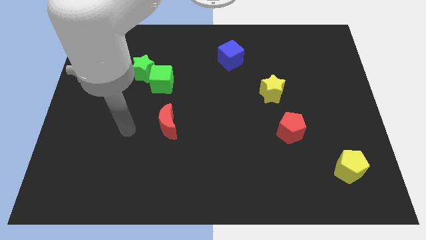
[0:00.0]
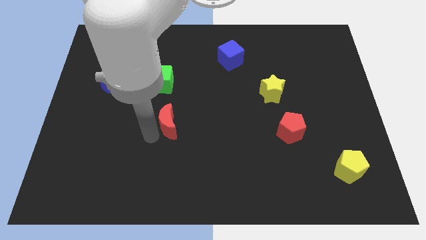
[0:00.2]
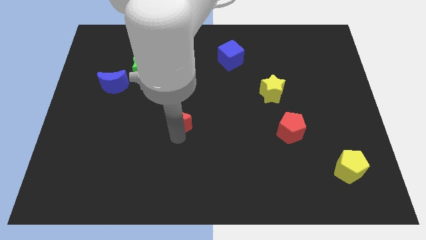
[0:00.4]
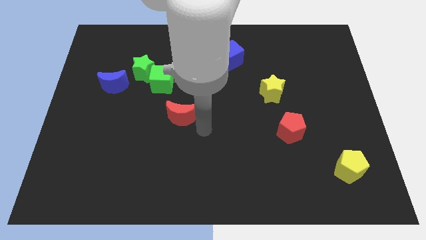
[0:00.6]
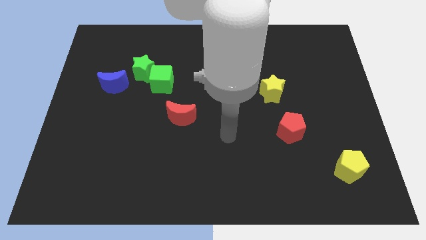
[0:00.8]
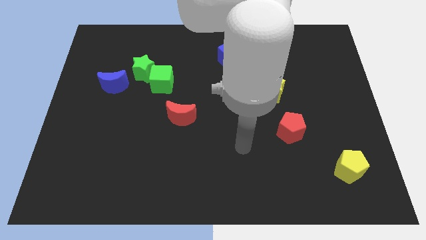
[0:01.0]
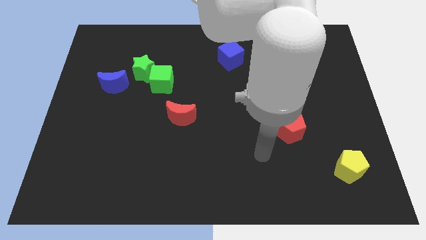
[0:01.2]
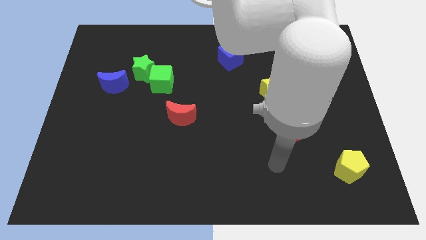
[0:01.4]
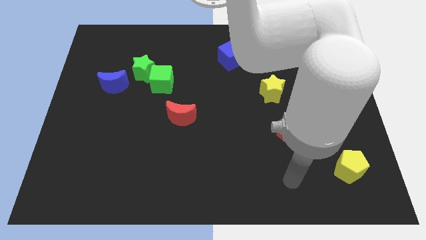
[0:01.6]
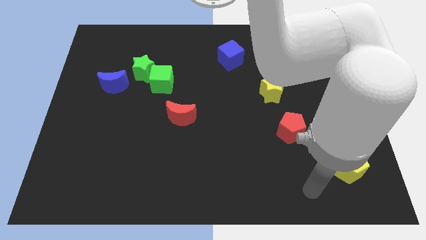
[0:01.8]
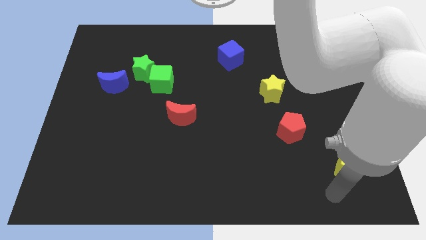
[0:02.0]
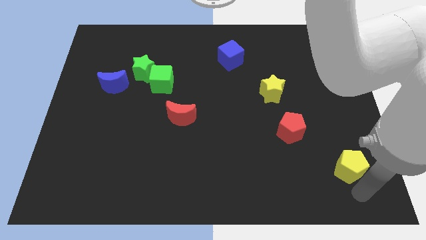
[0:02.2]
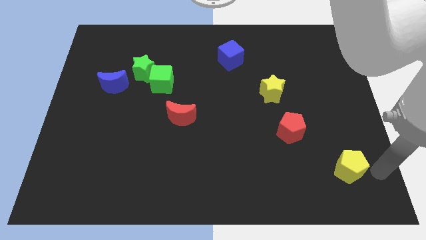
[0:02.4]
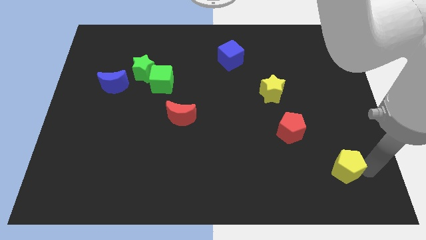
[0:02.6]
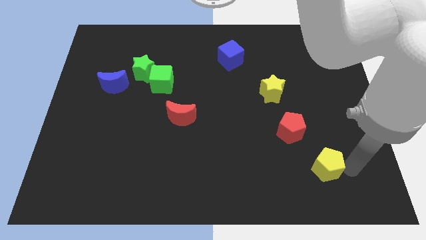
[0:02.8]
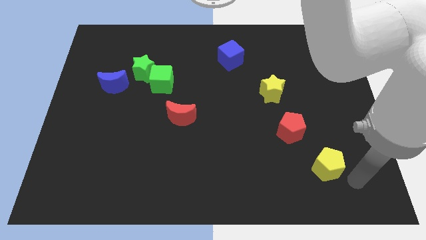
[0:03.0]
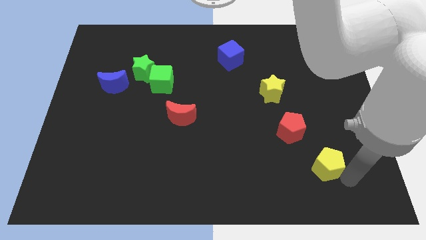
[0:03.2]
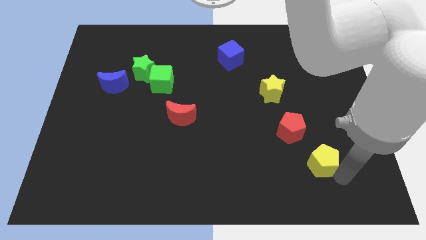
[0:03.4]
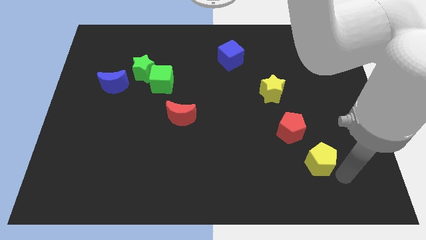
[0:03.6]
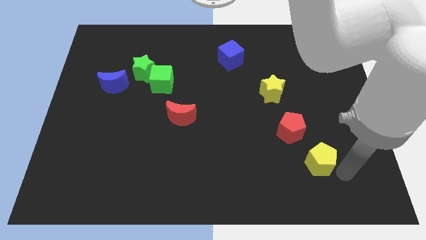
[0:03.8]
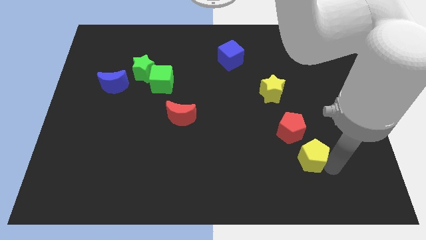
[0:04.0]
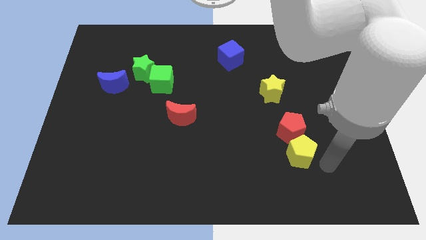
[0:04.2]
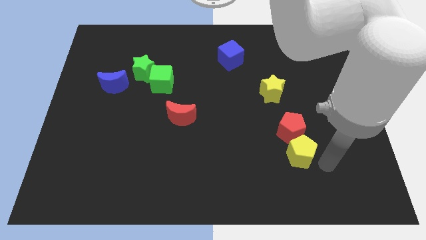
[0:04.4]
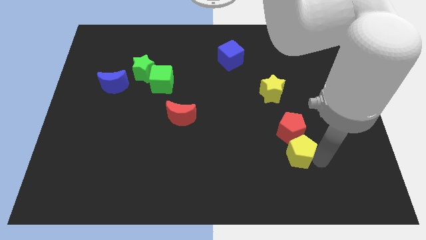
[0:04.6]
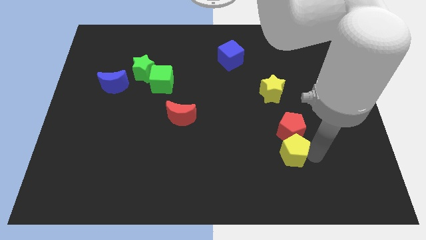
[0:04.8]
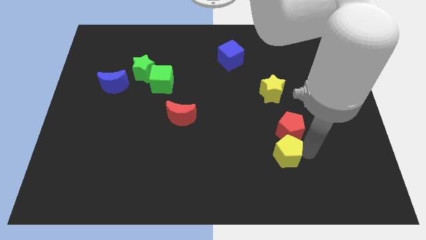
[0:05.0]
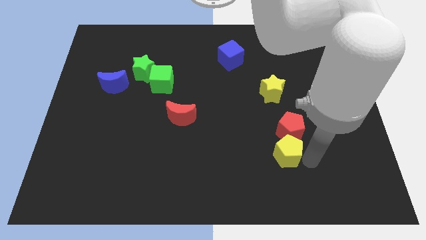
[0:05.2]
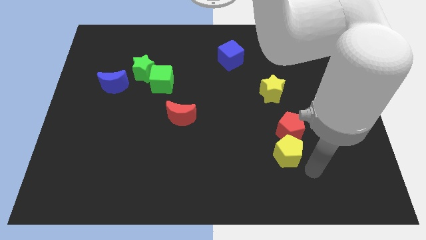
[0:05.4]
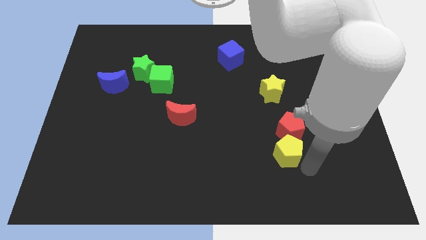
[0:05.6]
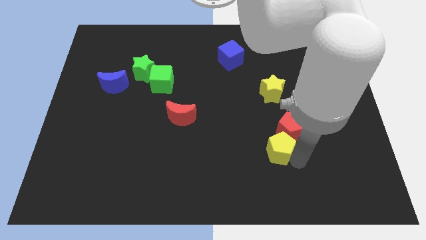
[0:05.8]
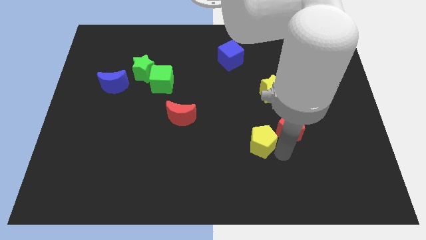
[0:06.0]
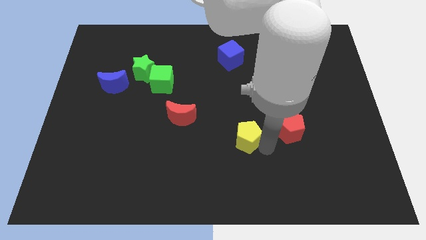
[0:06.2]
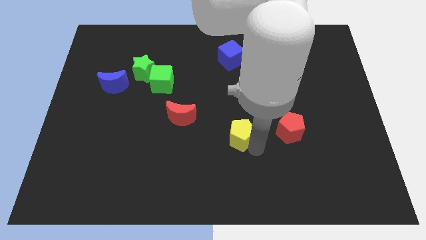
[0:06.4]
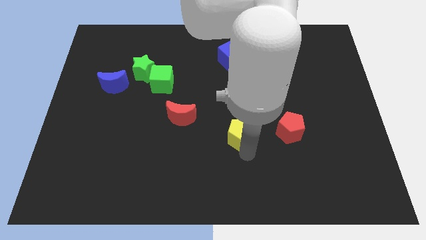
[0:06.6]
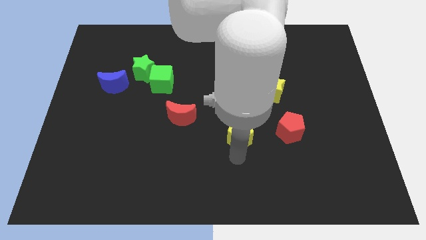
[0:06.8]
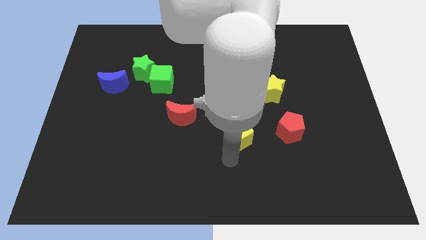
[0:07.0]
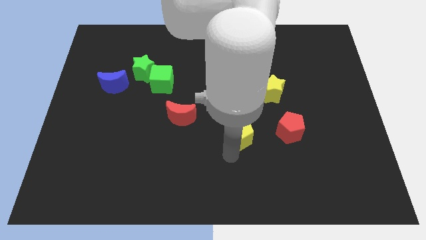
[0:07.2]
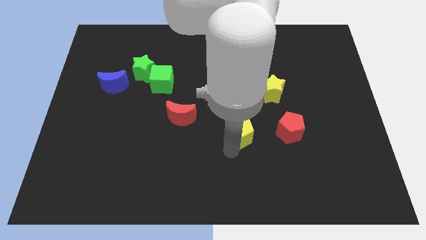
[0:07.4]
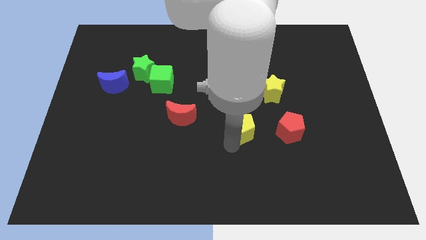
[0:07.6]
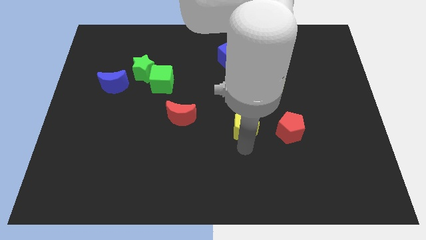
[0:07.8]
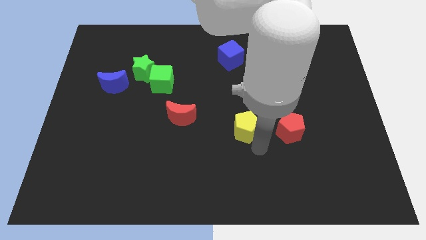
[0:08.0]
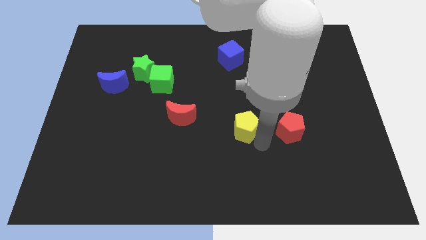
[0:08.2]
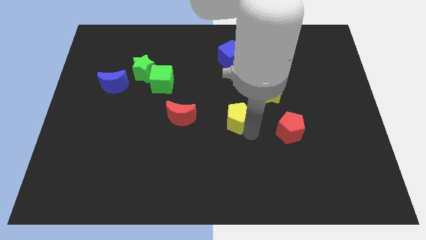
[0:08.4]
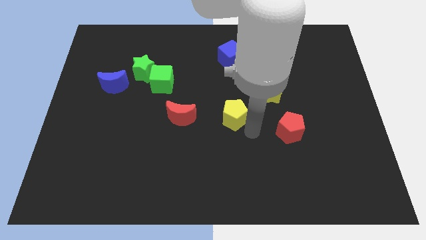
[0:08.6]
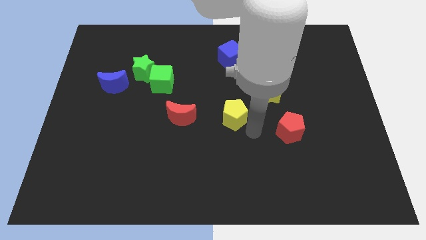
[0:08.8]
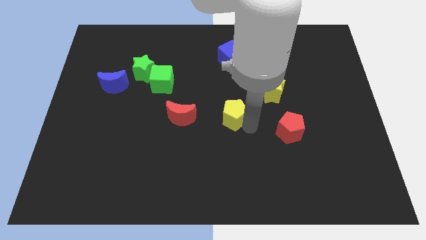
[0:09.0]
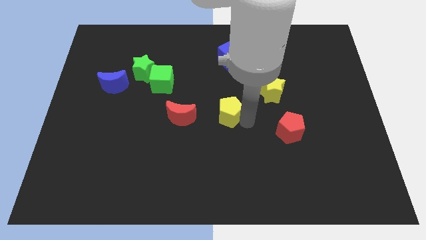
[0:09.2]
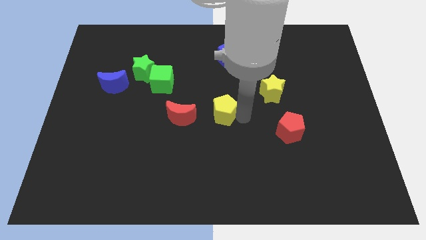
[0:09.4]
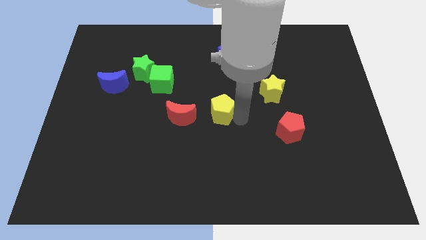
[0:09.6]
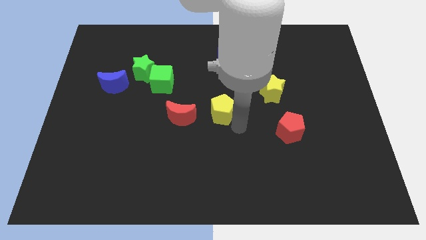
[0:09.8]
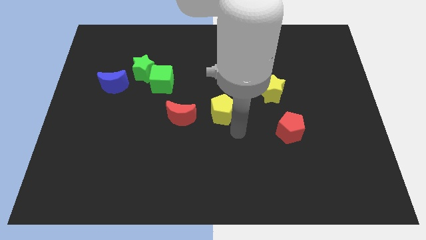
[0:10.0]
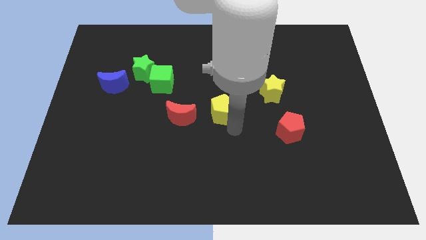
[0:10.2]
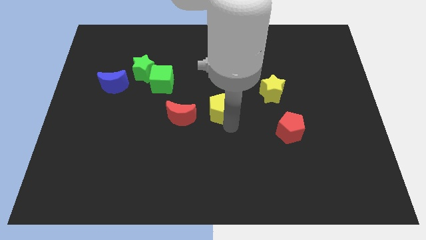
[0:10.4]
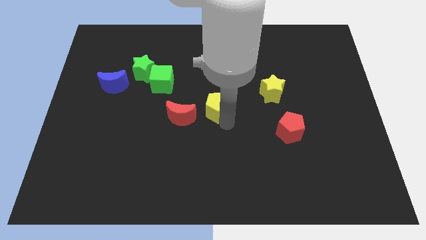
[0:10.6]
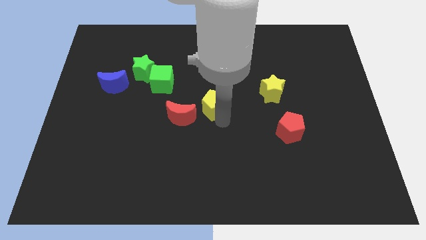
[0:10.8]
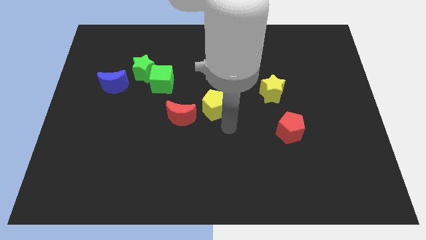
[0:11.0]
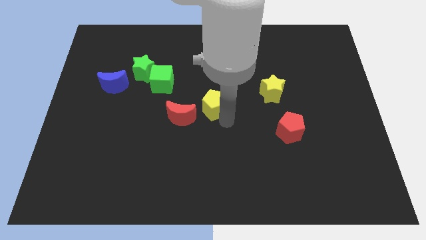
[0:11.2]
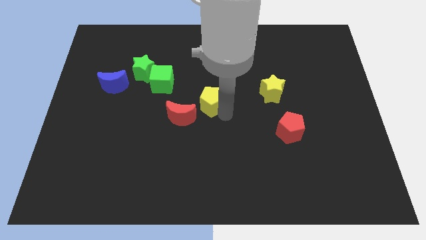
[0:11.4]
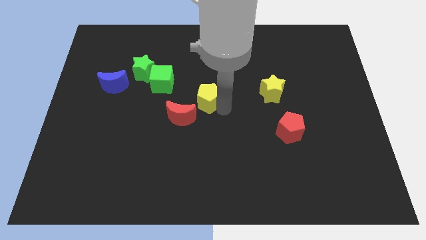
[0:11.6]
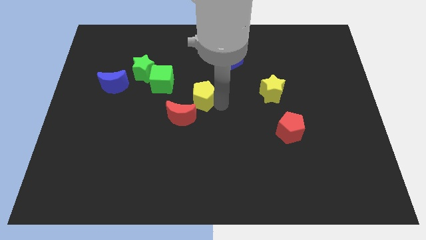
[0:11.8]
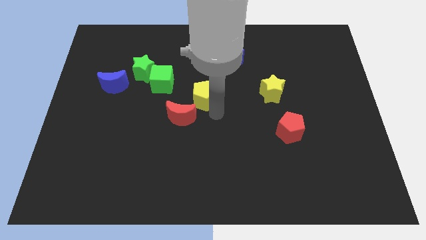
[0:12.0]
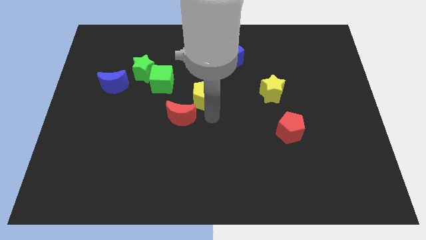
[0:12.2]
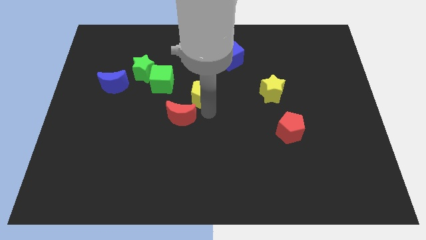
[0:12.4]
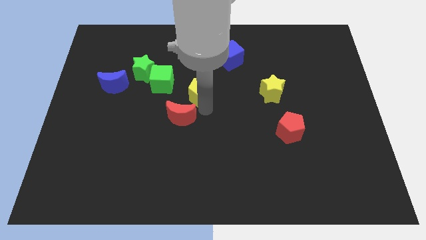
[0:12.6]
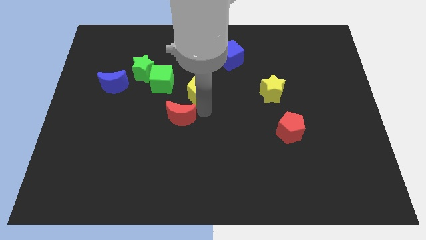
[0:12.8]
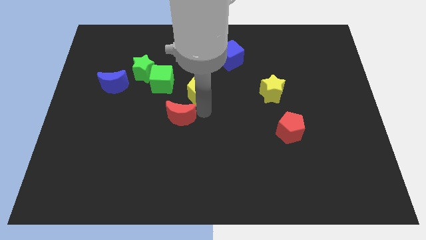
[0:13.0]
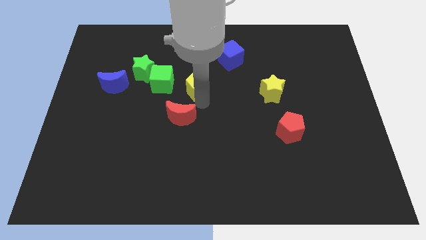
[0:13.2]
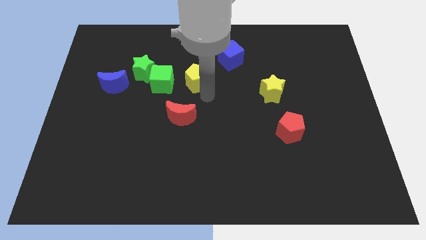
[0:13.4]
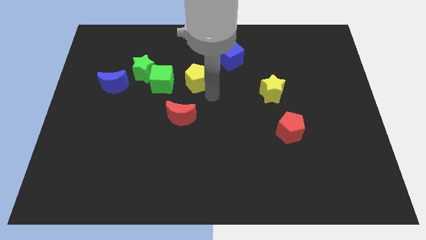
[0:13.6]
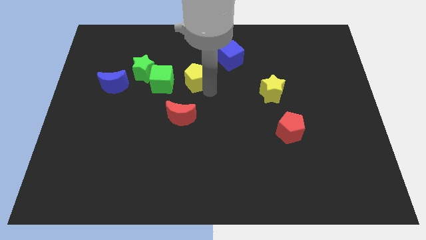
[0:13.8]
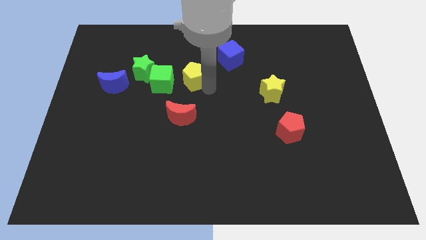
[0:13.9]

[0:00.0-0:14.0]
put the yellow pentagon diagonally up and to the right of the green cube
